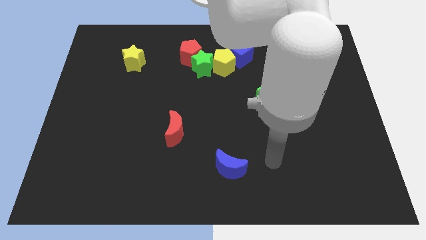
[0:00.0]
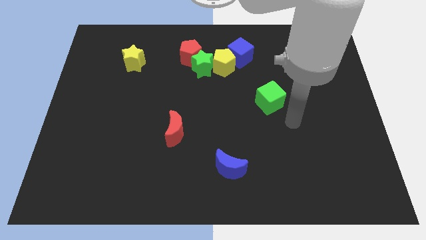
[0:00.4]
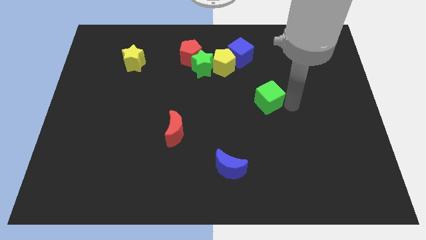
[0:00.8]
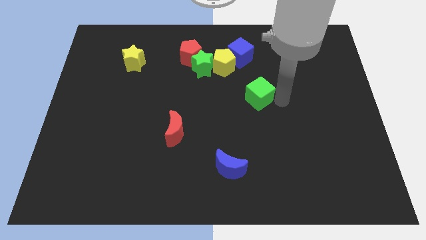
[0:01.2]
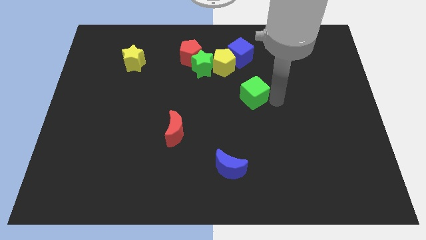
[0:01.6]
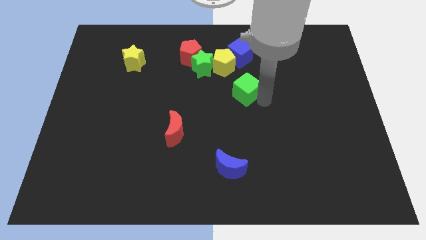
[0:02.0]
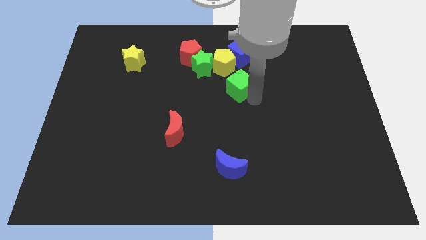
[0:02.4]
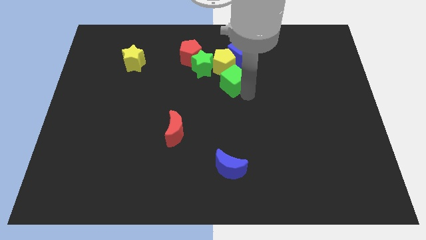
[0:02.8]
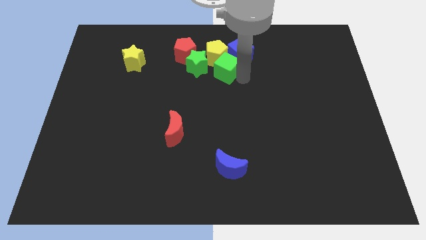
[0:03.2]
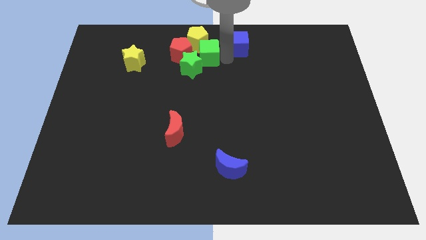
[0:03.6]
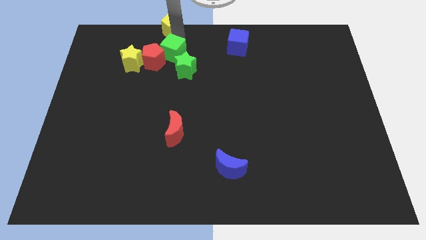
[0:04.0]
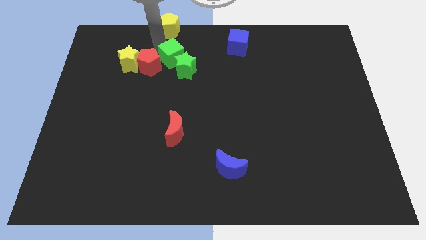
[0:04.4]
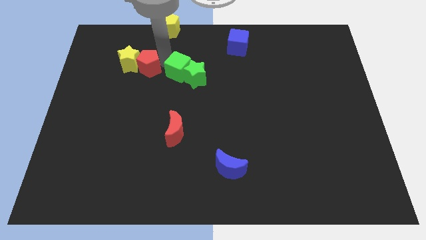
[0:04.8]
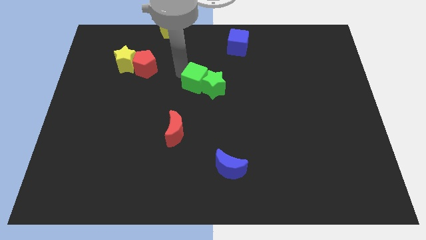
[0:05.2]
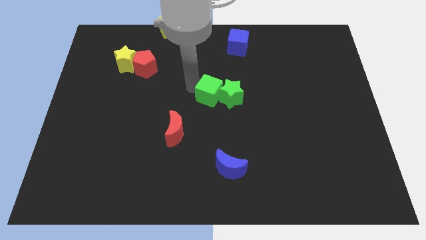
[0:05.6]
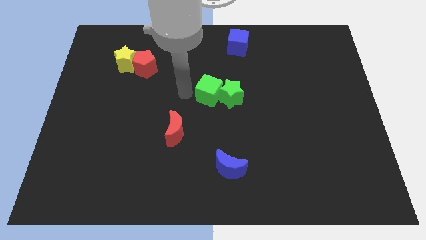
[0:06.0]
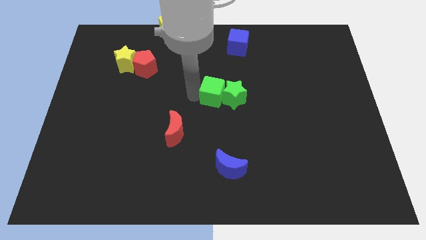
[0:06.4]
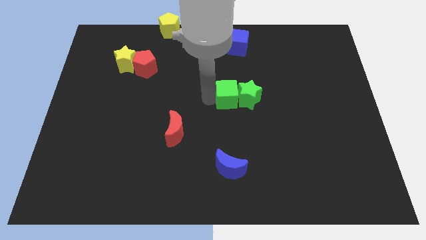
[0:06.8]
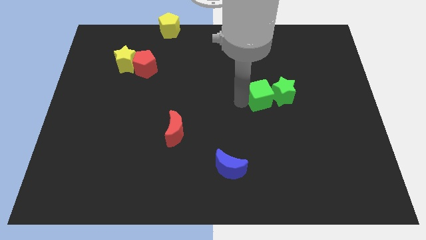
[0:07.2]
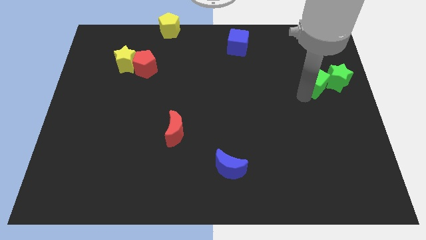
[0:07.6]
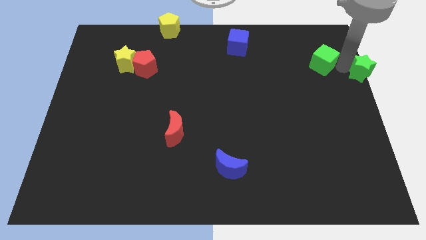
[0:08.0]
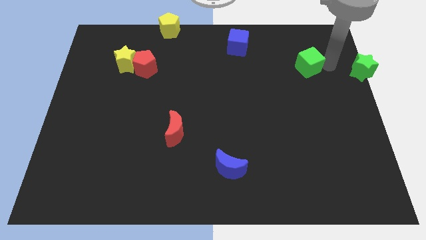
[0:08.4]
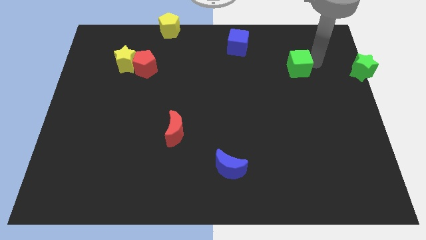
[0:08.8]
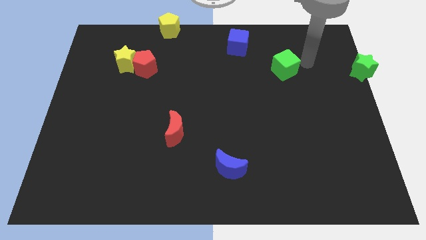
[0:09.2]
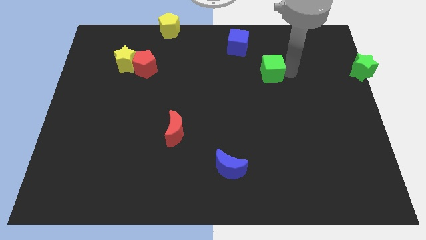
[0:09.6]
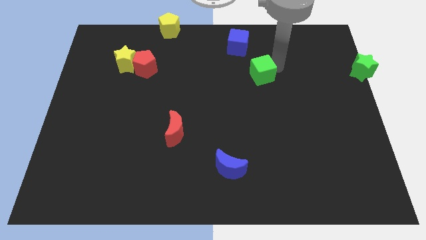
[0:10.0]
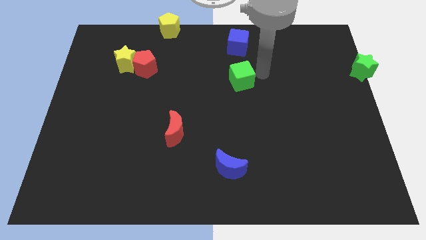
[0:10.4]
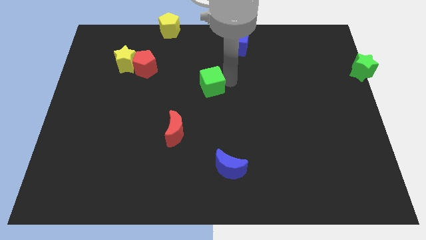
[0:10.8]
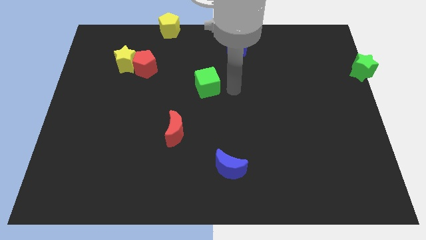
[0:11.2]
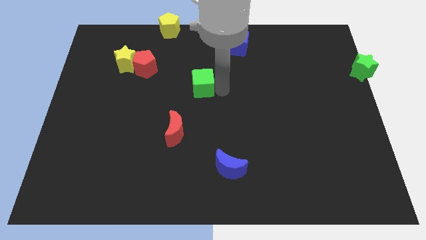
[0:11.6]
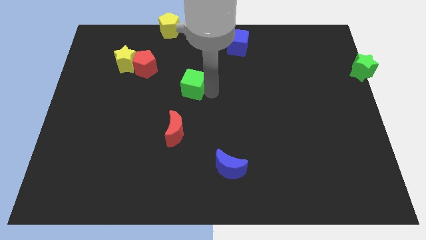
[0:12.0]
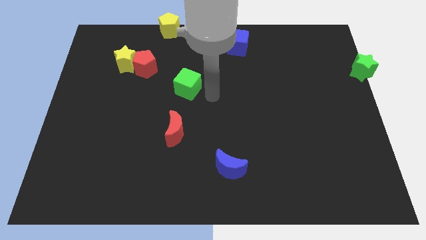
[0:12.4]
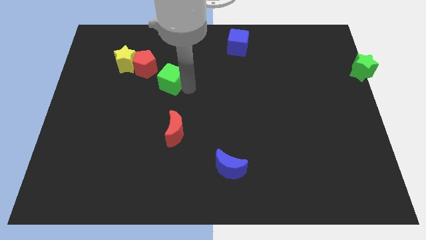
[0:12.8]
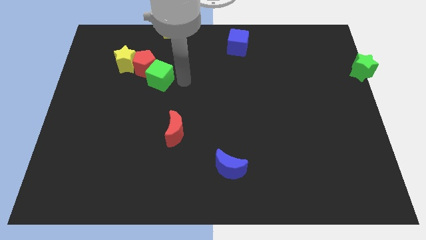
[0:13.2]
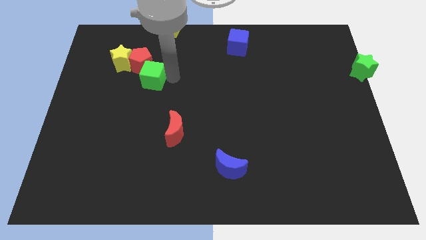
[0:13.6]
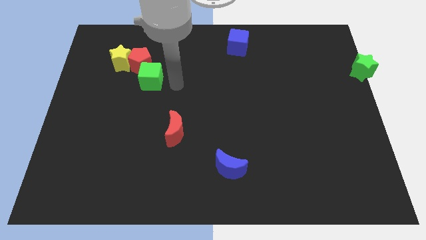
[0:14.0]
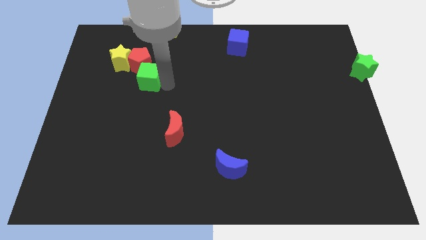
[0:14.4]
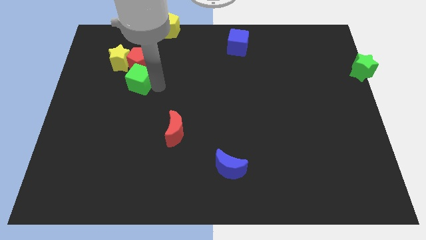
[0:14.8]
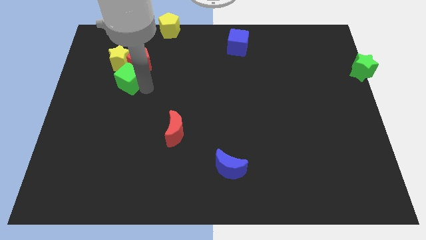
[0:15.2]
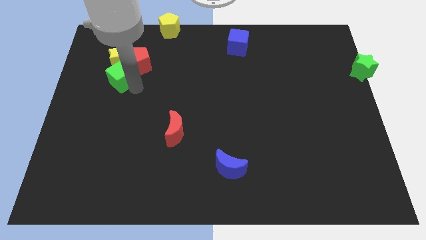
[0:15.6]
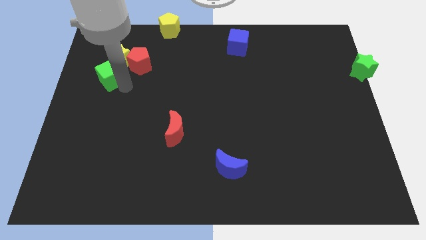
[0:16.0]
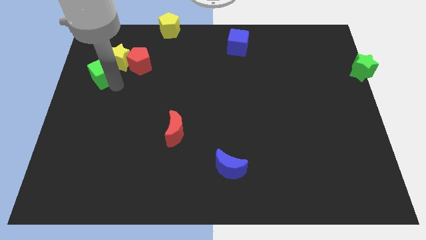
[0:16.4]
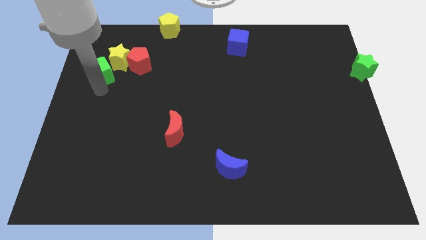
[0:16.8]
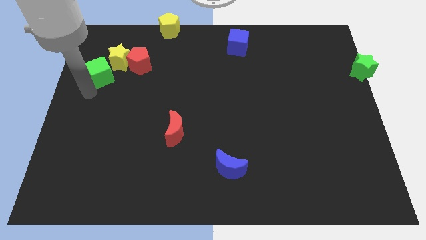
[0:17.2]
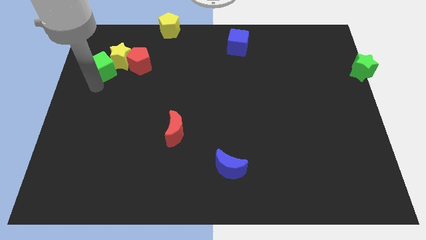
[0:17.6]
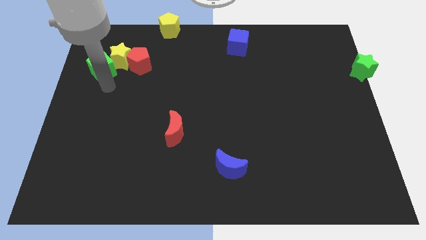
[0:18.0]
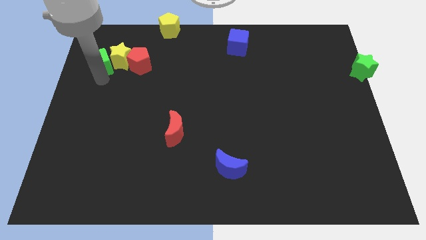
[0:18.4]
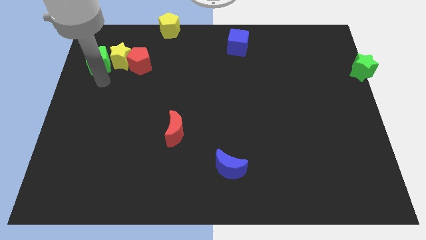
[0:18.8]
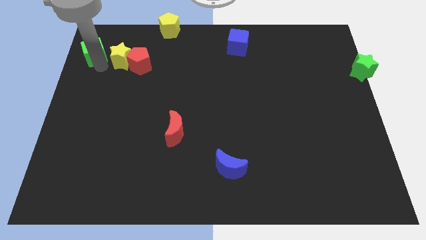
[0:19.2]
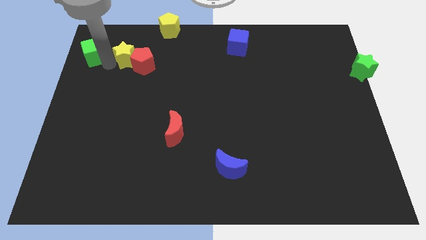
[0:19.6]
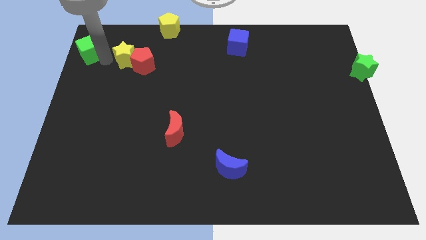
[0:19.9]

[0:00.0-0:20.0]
slide the green cube to the top left corner
